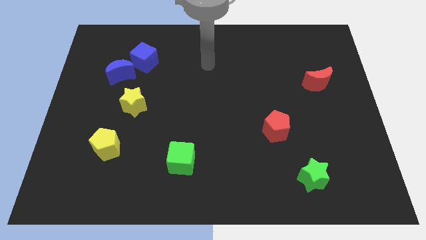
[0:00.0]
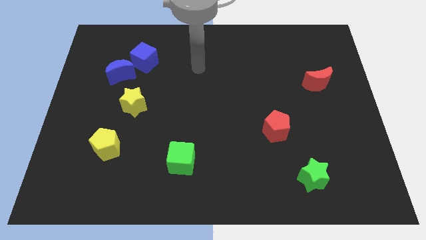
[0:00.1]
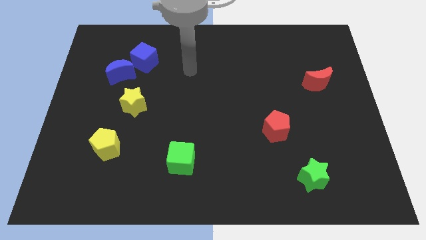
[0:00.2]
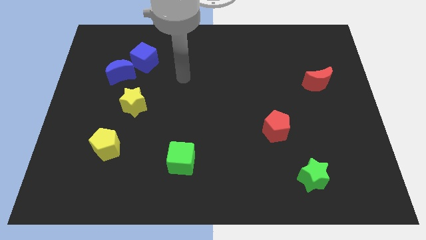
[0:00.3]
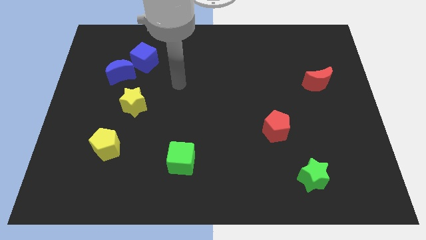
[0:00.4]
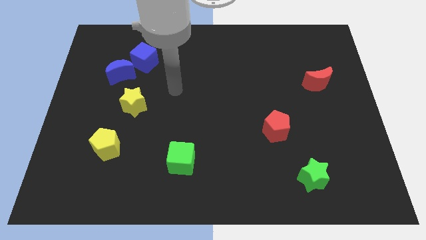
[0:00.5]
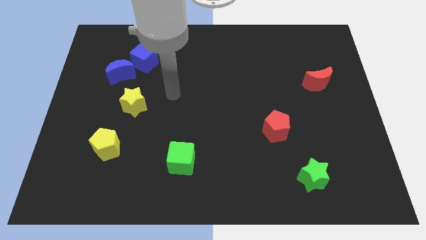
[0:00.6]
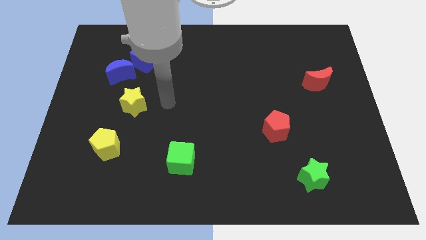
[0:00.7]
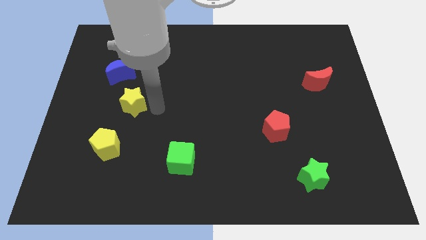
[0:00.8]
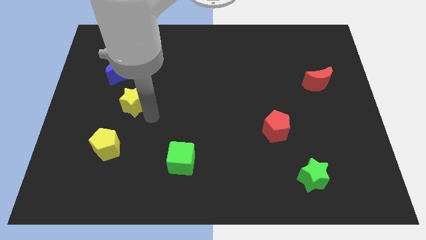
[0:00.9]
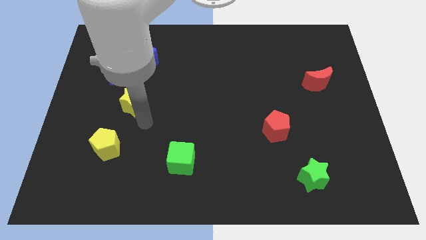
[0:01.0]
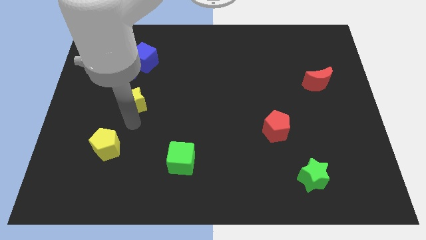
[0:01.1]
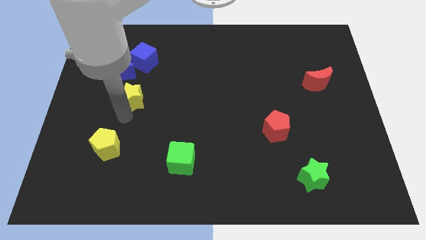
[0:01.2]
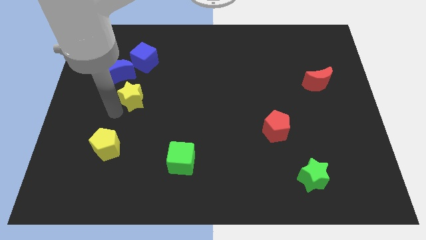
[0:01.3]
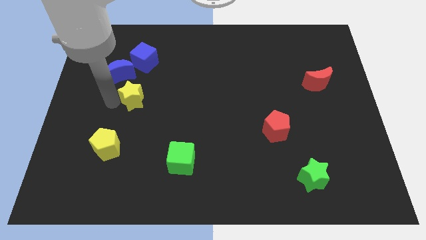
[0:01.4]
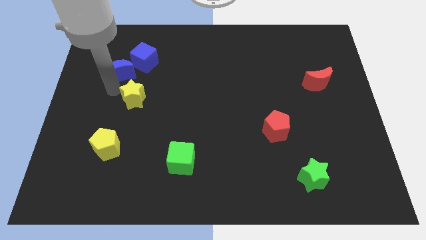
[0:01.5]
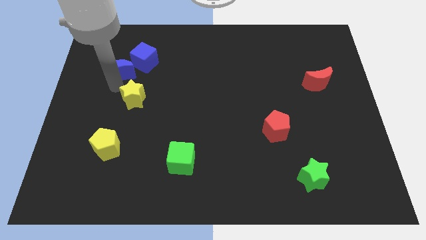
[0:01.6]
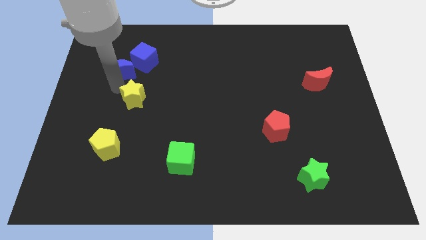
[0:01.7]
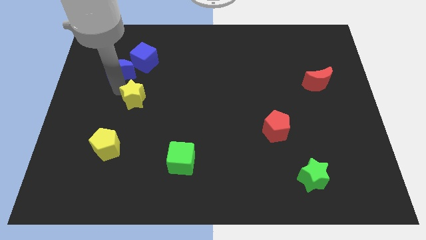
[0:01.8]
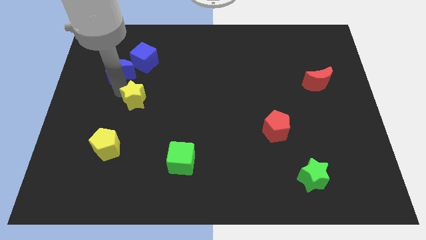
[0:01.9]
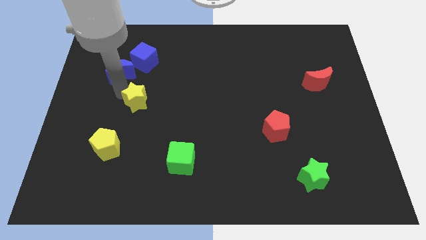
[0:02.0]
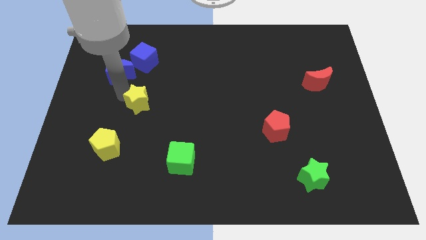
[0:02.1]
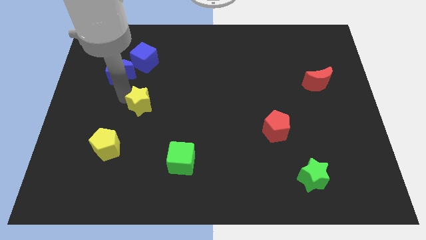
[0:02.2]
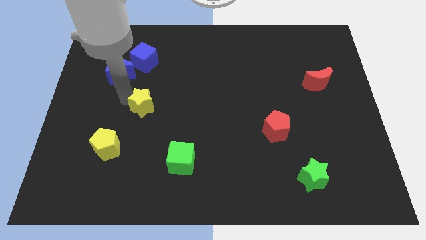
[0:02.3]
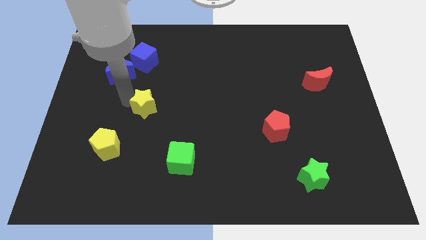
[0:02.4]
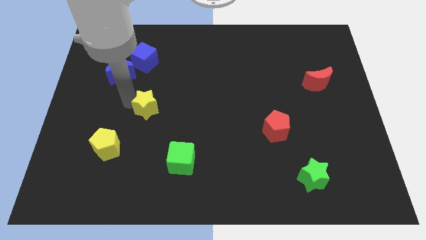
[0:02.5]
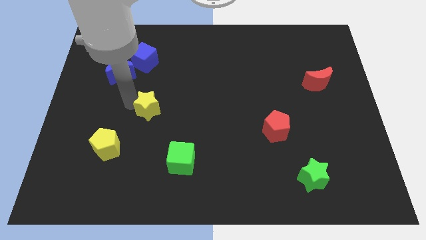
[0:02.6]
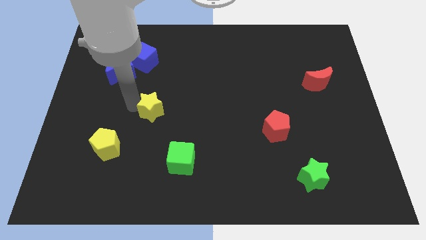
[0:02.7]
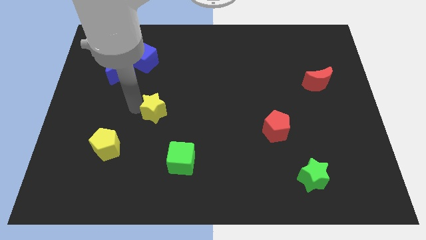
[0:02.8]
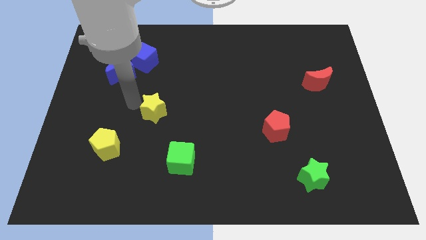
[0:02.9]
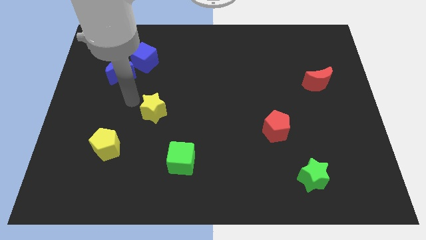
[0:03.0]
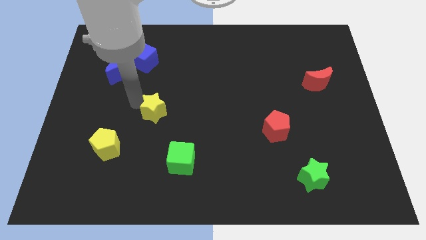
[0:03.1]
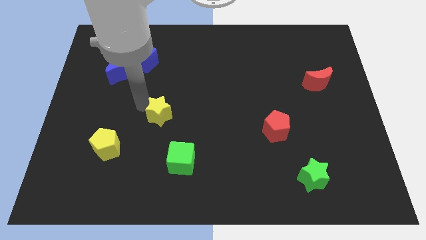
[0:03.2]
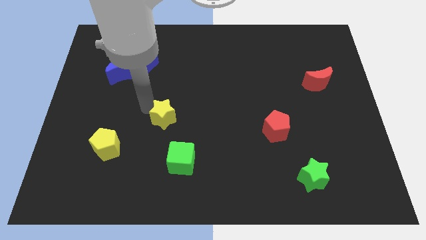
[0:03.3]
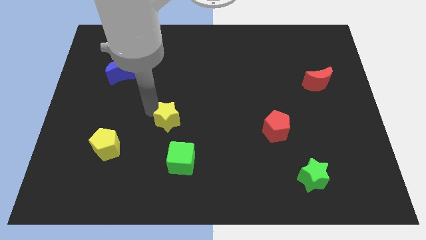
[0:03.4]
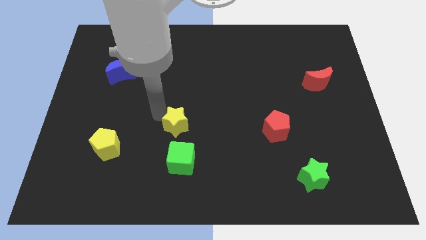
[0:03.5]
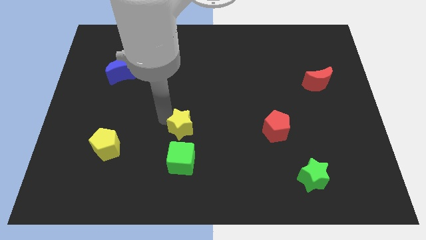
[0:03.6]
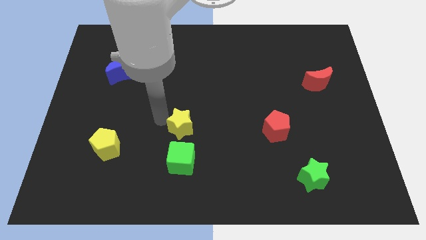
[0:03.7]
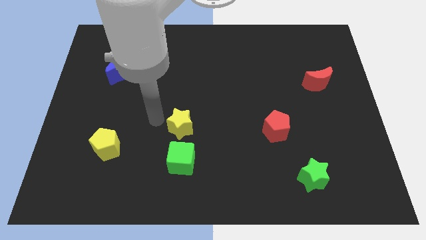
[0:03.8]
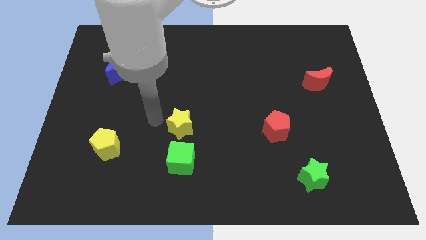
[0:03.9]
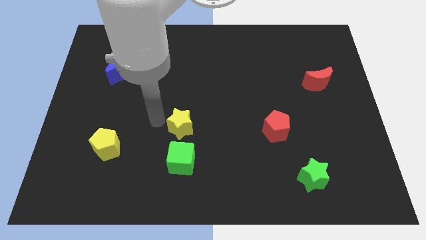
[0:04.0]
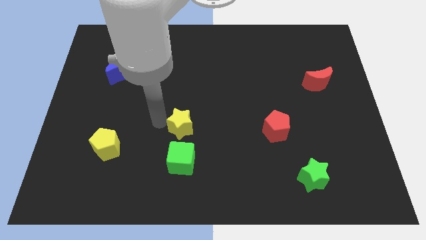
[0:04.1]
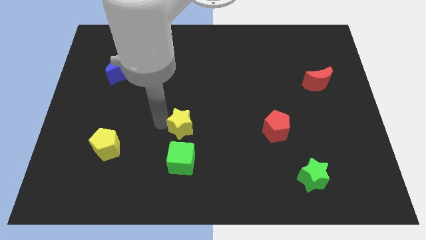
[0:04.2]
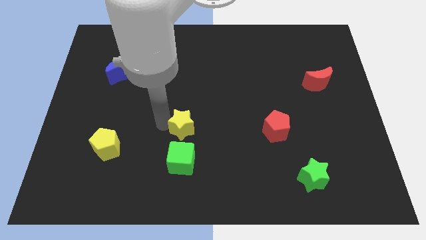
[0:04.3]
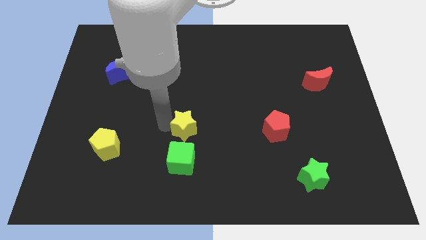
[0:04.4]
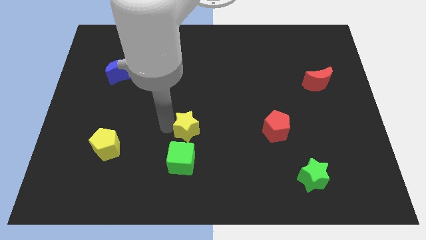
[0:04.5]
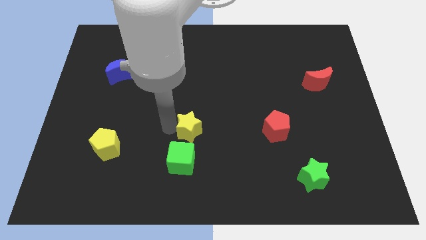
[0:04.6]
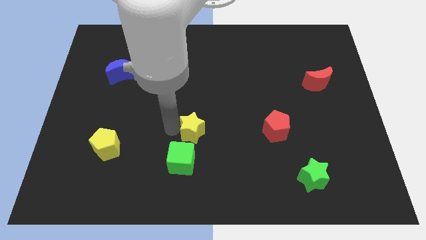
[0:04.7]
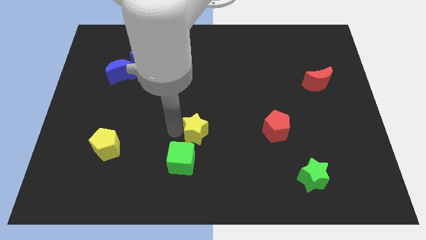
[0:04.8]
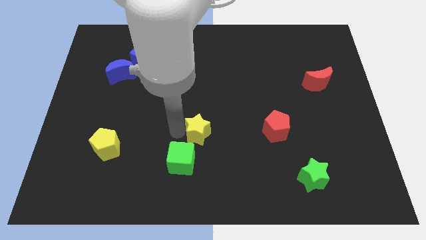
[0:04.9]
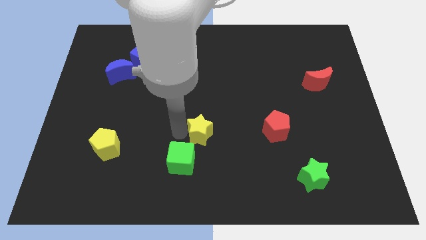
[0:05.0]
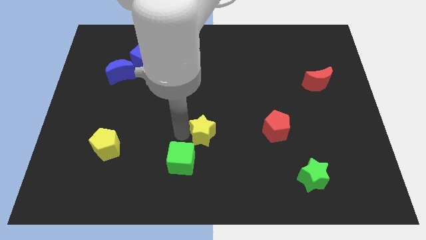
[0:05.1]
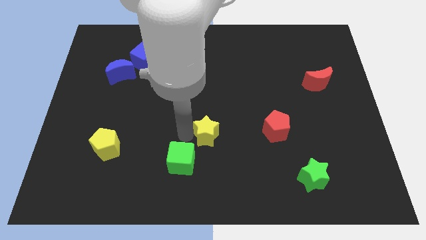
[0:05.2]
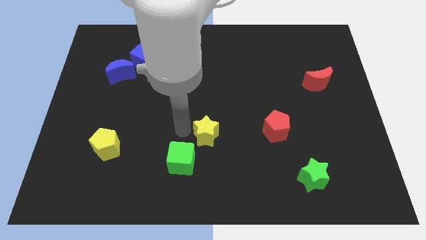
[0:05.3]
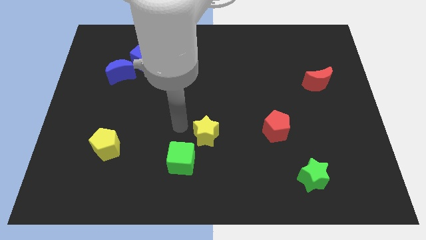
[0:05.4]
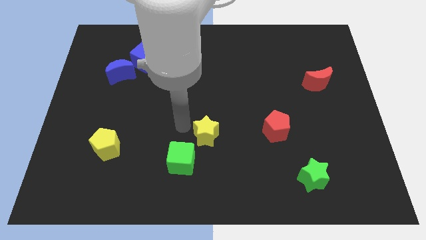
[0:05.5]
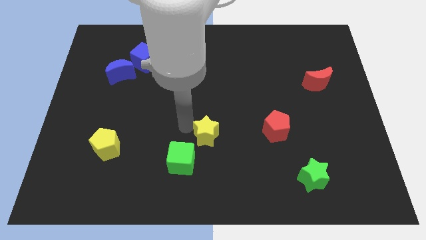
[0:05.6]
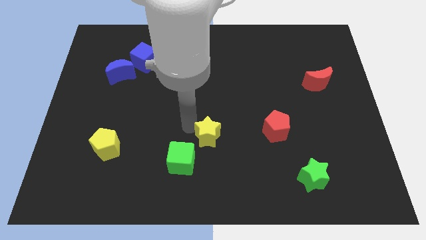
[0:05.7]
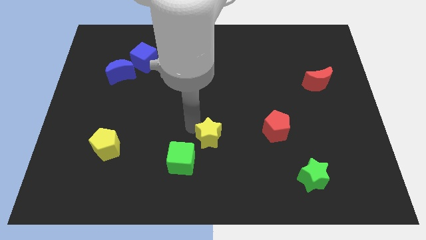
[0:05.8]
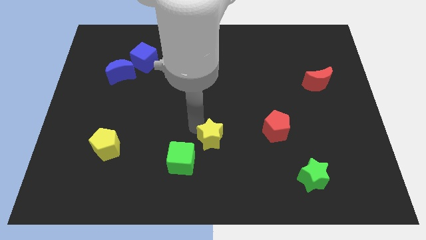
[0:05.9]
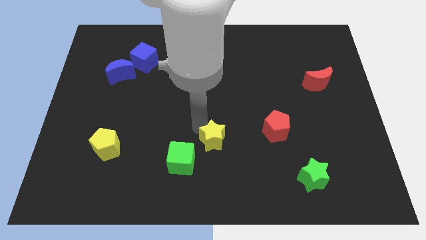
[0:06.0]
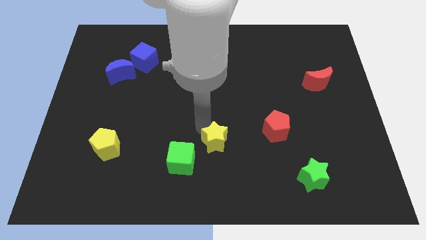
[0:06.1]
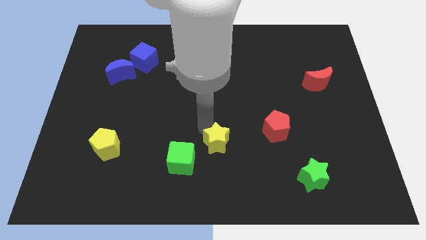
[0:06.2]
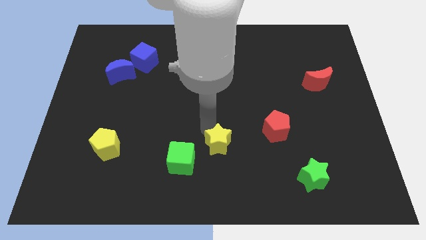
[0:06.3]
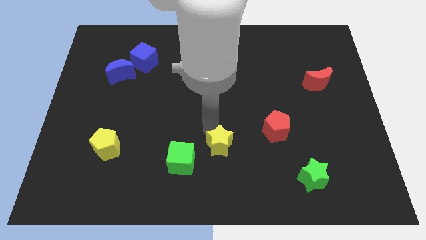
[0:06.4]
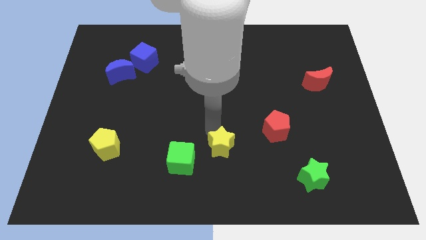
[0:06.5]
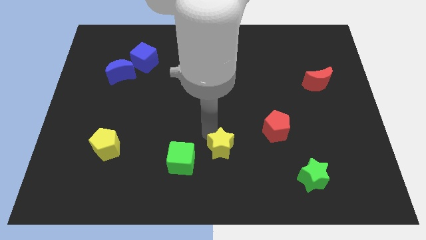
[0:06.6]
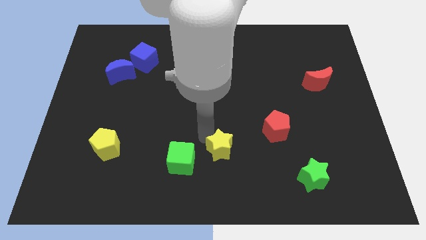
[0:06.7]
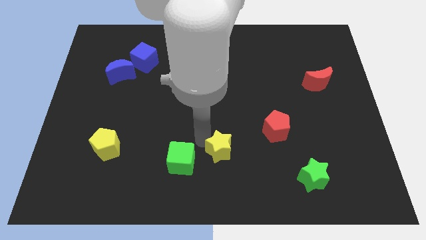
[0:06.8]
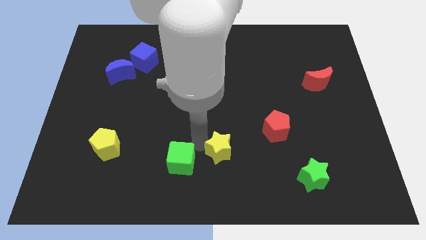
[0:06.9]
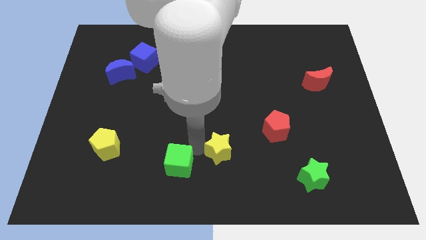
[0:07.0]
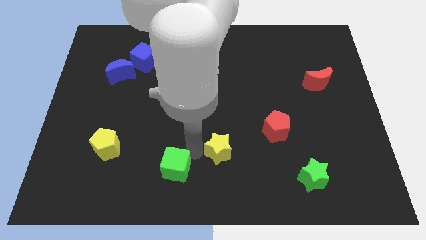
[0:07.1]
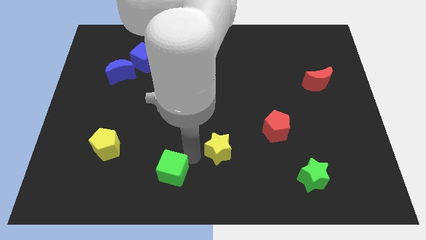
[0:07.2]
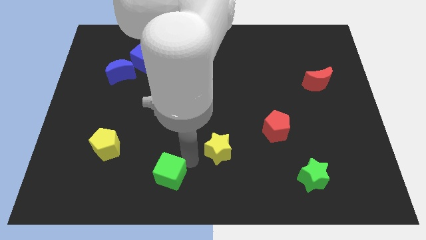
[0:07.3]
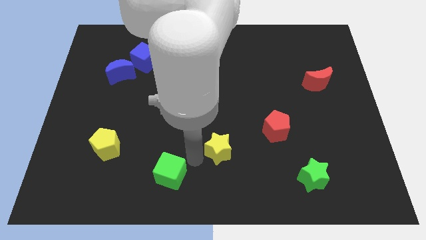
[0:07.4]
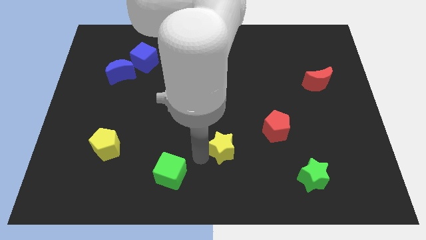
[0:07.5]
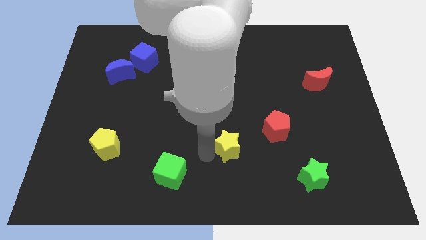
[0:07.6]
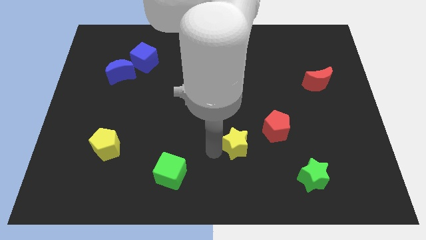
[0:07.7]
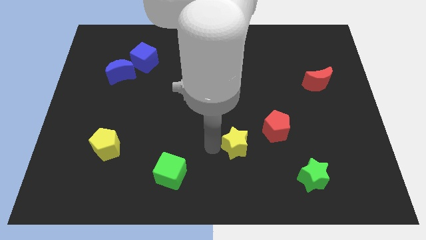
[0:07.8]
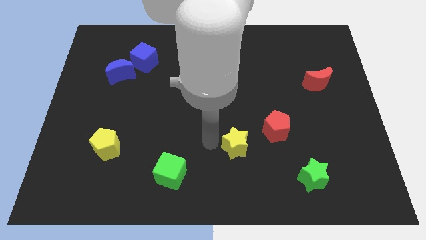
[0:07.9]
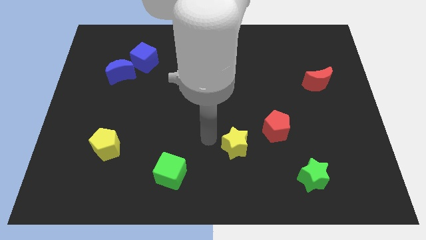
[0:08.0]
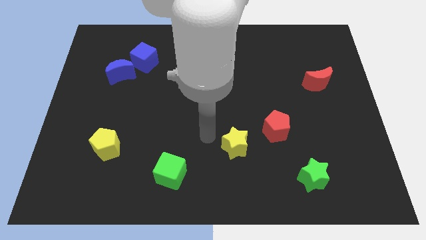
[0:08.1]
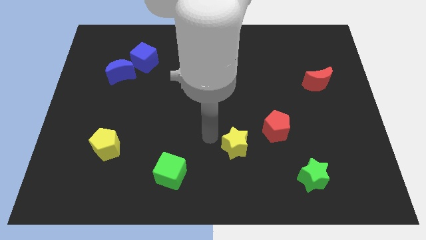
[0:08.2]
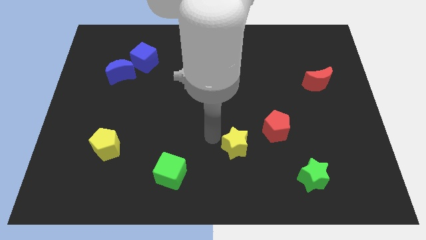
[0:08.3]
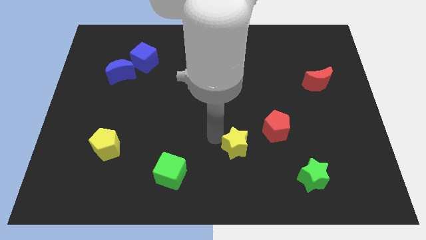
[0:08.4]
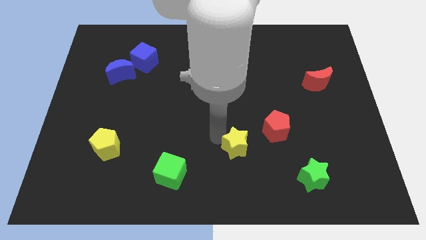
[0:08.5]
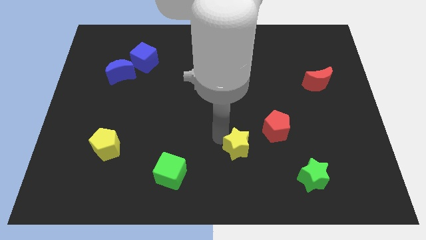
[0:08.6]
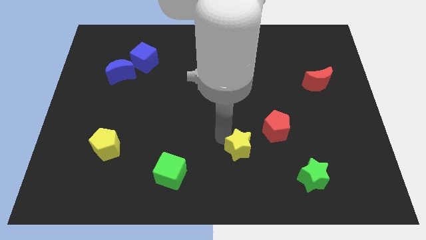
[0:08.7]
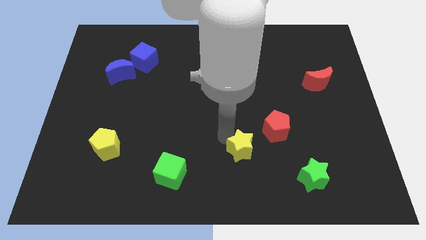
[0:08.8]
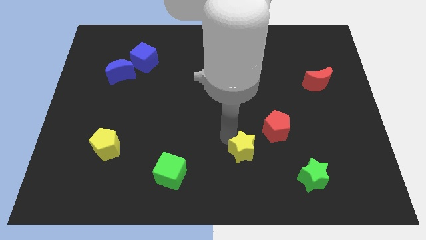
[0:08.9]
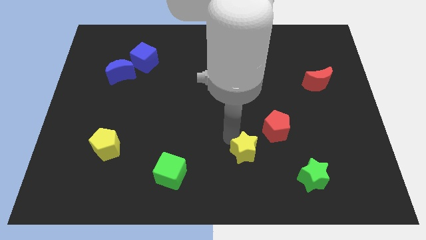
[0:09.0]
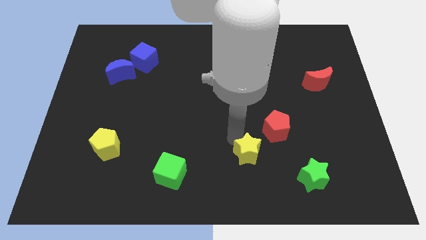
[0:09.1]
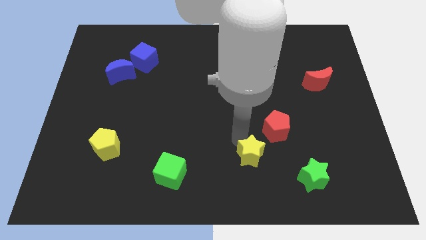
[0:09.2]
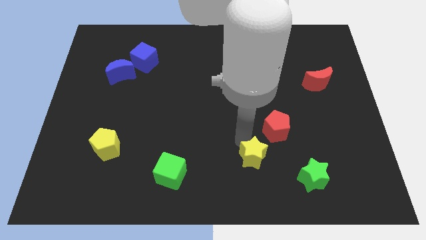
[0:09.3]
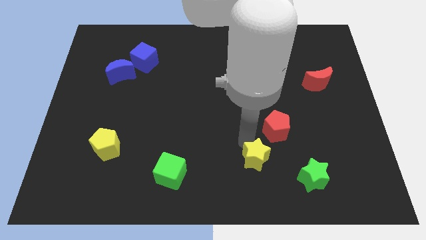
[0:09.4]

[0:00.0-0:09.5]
move the yellow star to the bottom of the red pentagon
